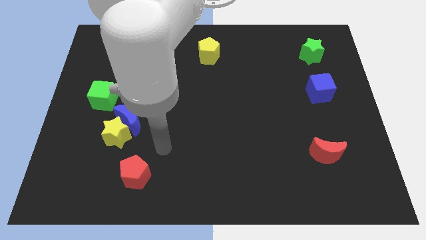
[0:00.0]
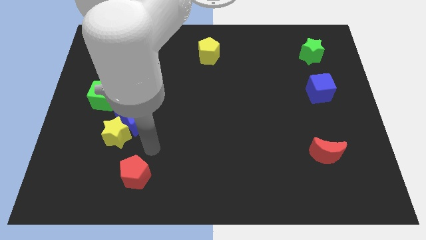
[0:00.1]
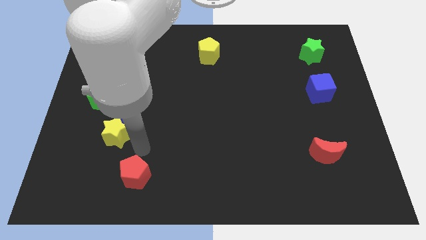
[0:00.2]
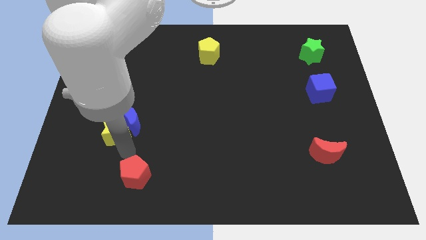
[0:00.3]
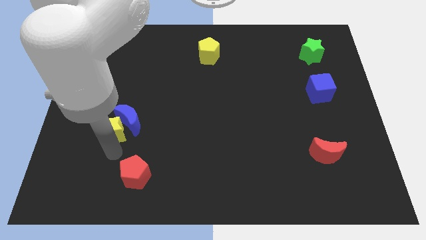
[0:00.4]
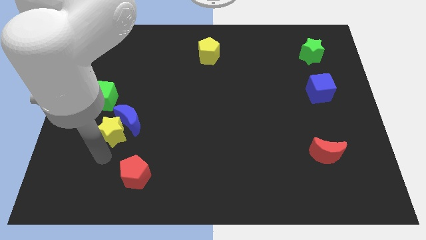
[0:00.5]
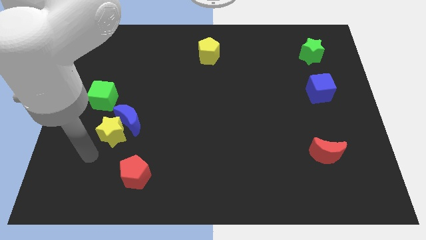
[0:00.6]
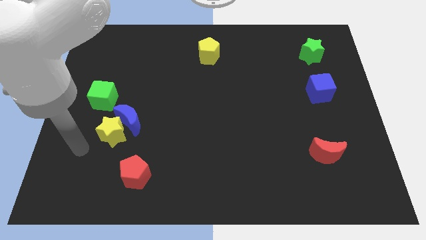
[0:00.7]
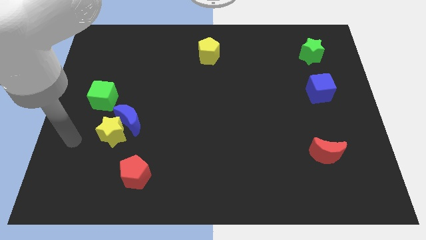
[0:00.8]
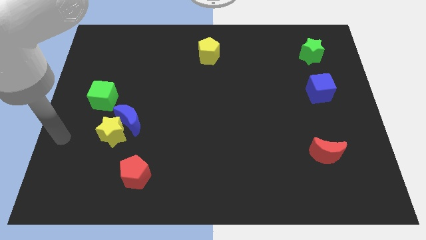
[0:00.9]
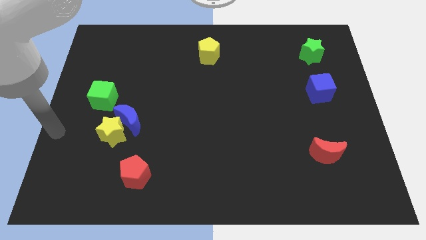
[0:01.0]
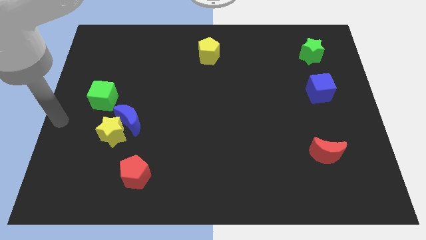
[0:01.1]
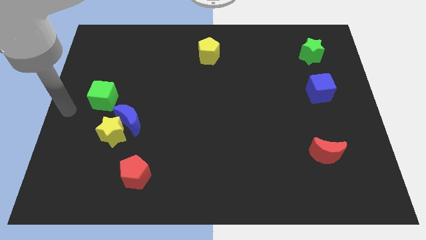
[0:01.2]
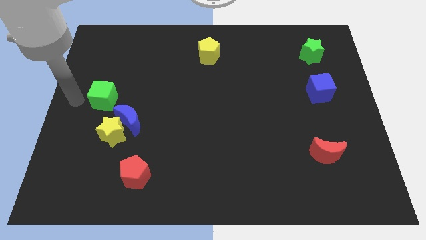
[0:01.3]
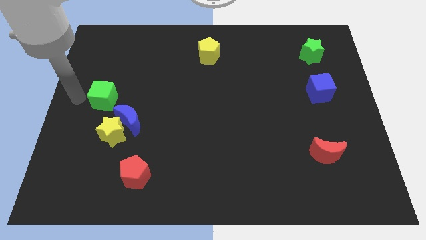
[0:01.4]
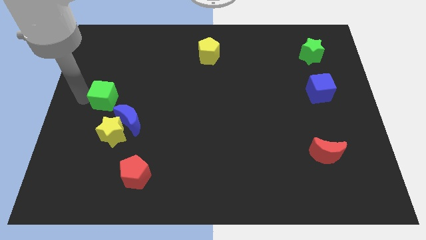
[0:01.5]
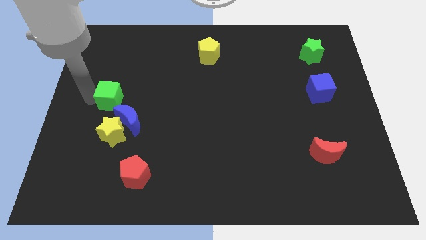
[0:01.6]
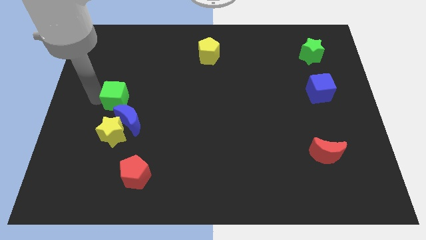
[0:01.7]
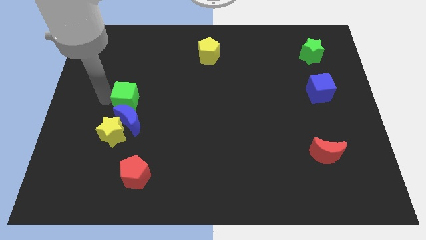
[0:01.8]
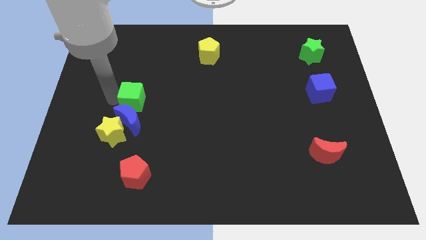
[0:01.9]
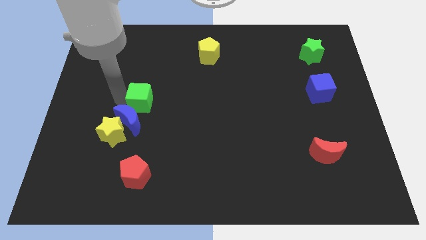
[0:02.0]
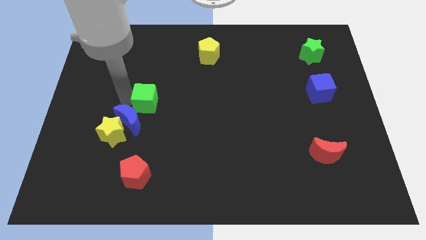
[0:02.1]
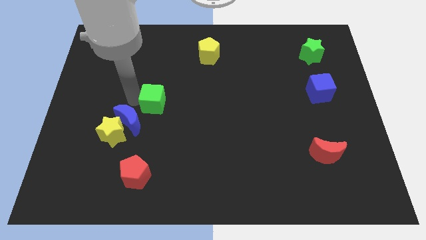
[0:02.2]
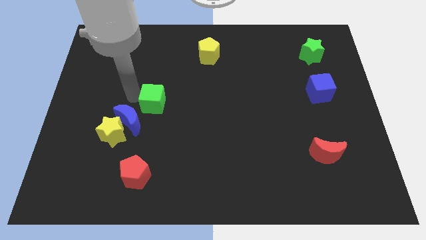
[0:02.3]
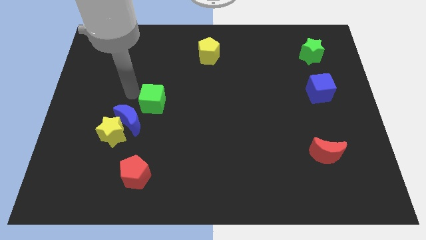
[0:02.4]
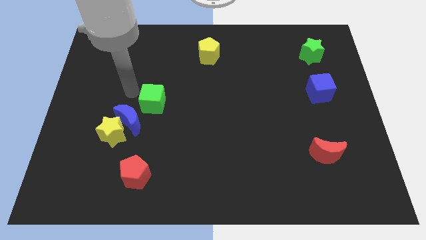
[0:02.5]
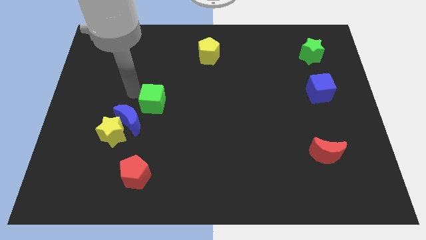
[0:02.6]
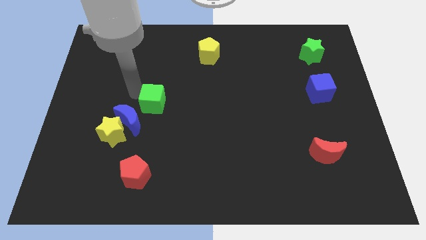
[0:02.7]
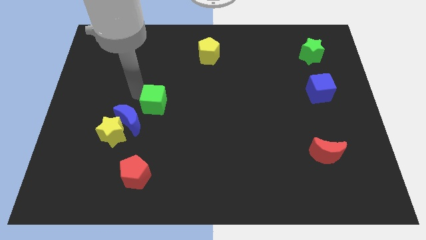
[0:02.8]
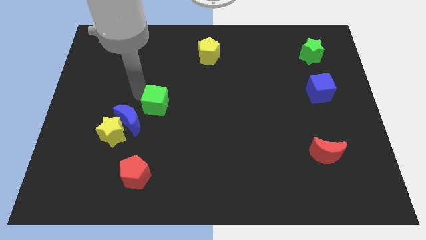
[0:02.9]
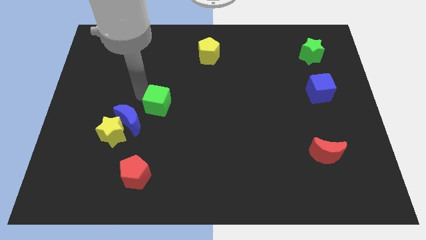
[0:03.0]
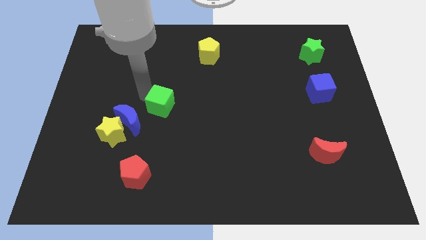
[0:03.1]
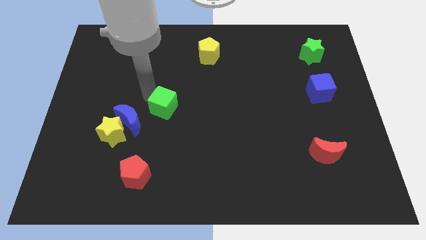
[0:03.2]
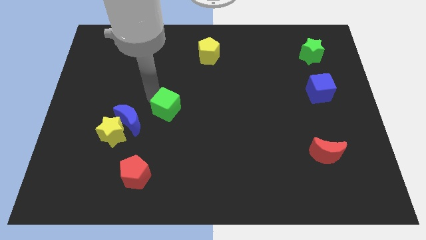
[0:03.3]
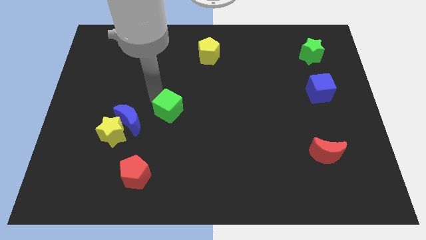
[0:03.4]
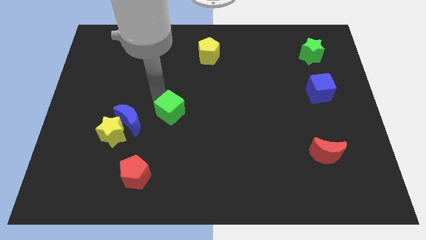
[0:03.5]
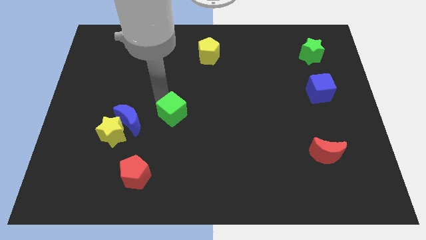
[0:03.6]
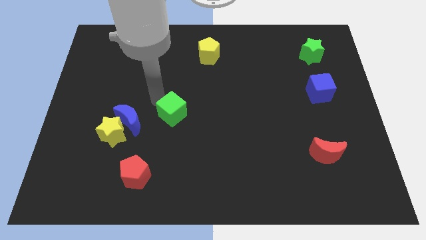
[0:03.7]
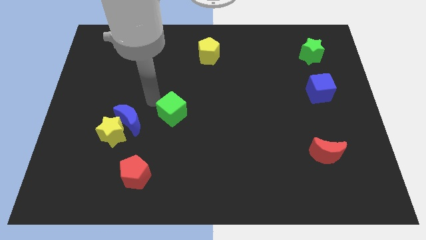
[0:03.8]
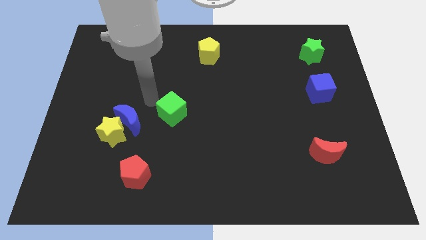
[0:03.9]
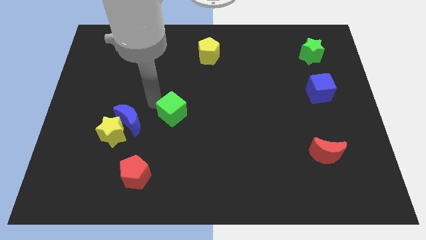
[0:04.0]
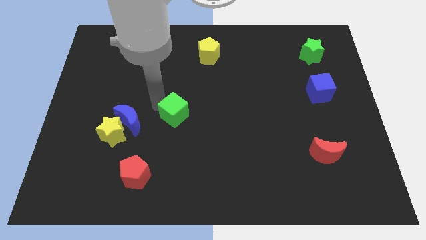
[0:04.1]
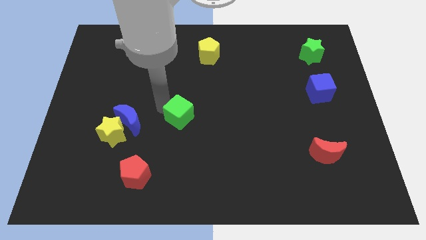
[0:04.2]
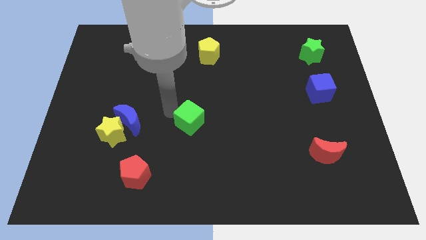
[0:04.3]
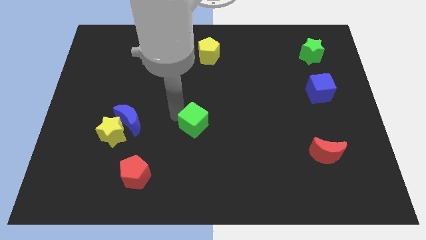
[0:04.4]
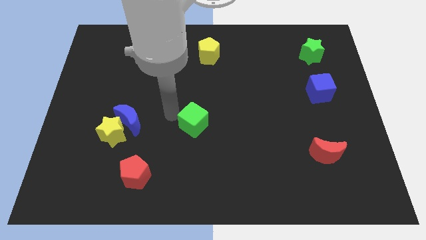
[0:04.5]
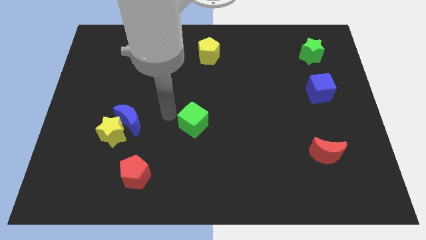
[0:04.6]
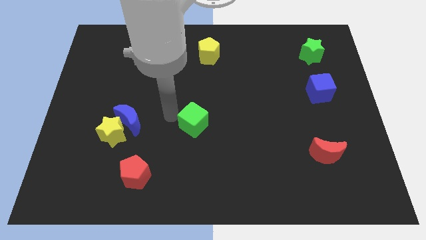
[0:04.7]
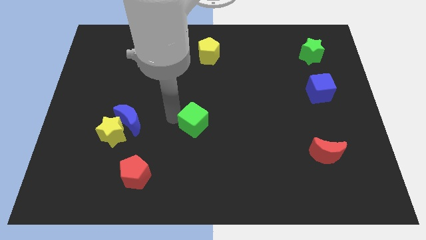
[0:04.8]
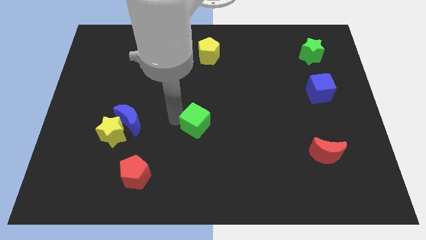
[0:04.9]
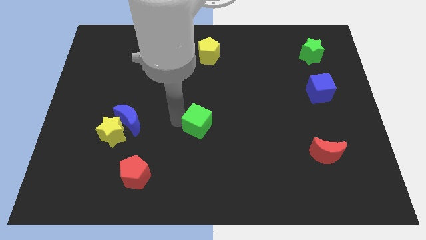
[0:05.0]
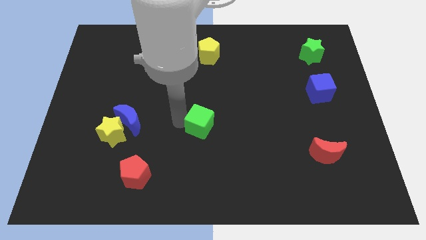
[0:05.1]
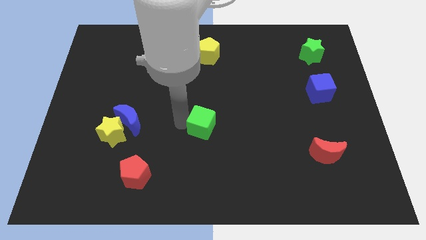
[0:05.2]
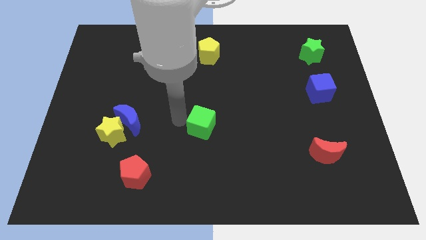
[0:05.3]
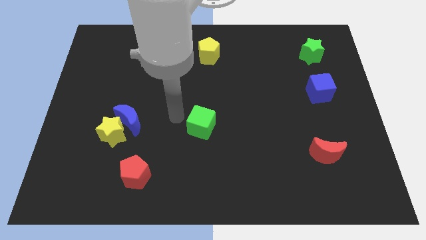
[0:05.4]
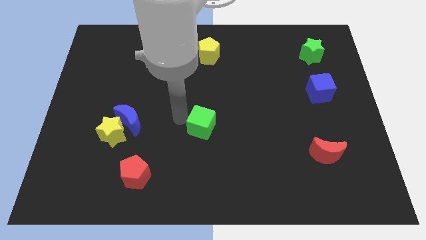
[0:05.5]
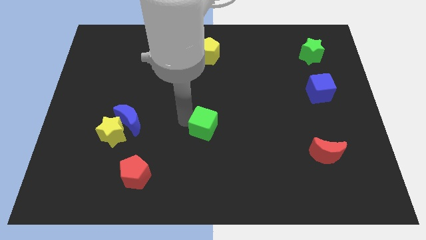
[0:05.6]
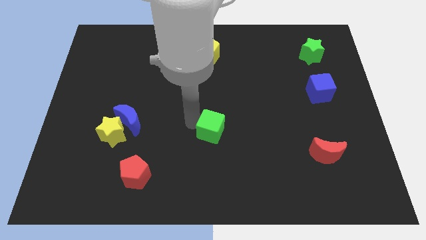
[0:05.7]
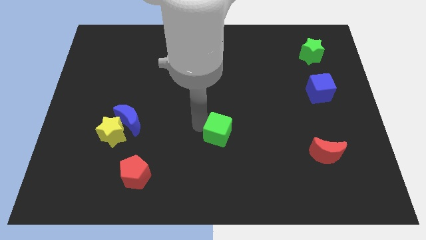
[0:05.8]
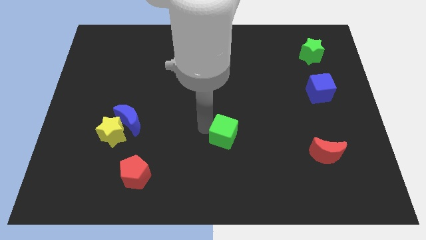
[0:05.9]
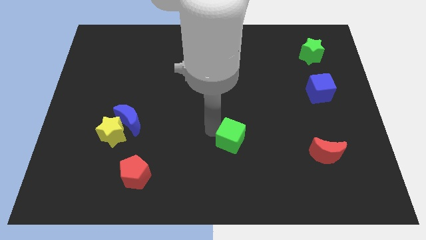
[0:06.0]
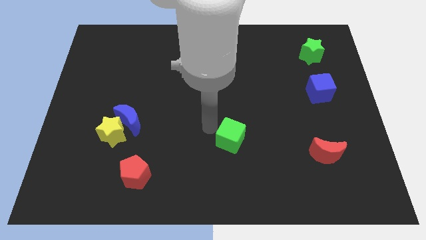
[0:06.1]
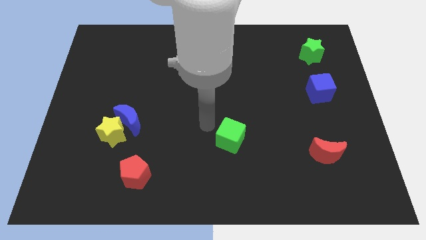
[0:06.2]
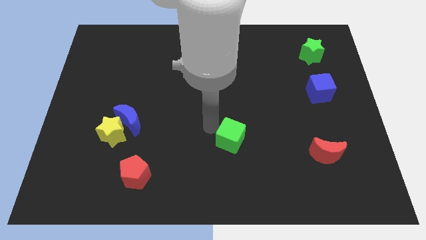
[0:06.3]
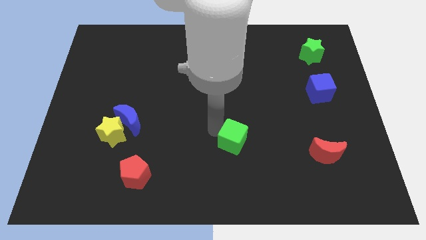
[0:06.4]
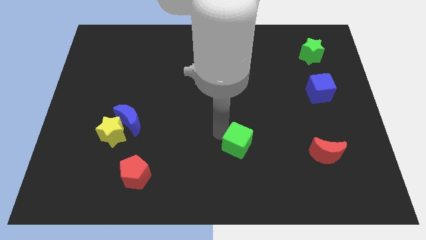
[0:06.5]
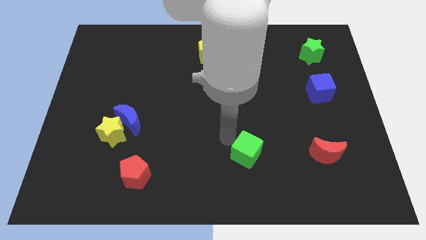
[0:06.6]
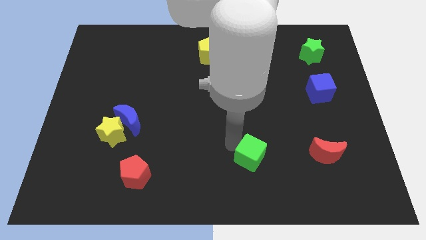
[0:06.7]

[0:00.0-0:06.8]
put the green cube left of the red moon
